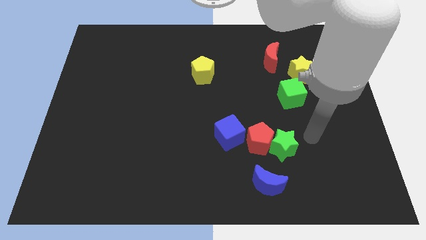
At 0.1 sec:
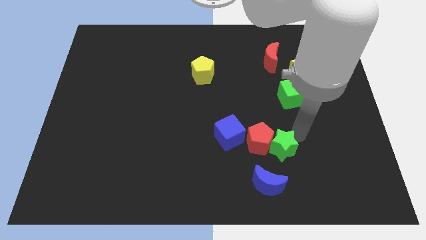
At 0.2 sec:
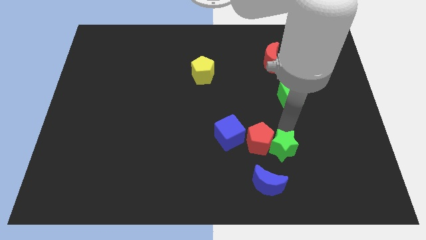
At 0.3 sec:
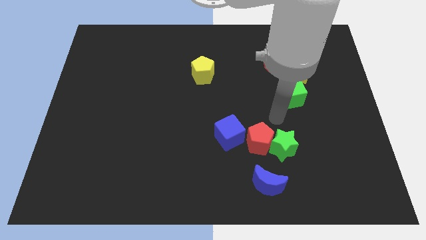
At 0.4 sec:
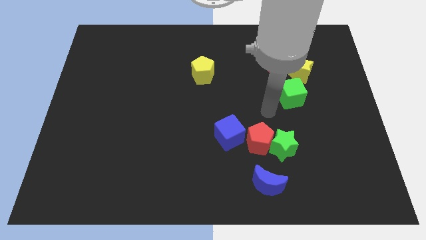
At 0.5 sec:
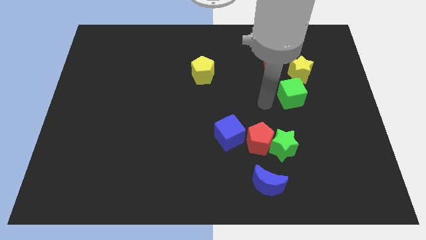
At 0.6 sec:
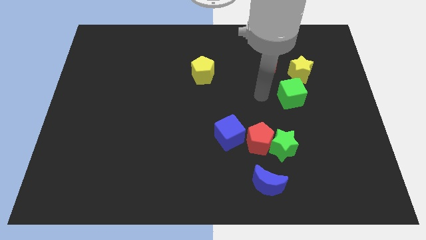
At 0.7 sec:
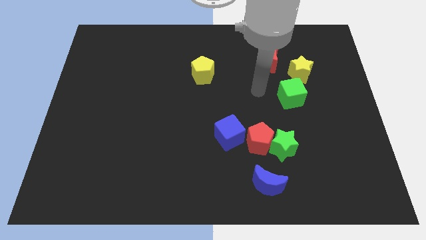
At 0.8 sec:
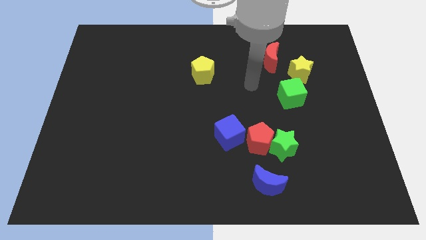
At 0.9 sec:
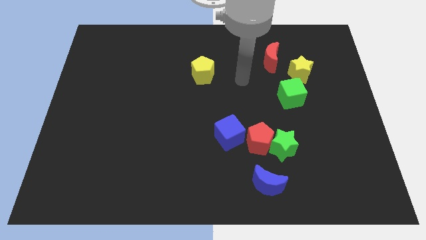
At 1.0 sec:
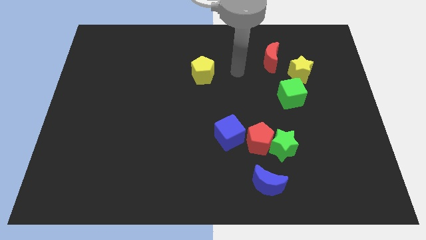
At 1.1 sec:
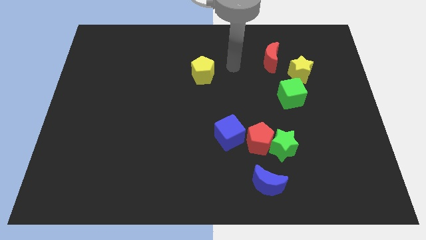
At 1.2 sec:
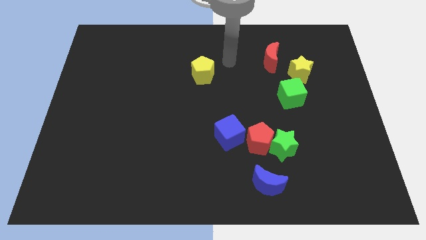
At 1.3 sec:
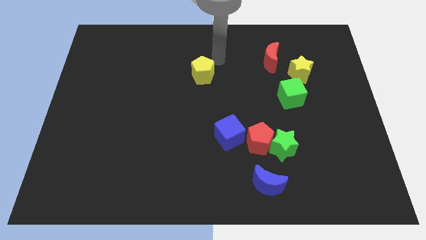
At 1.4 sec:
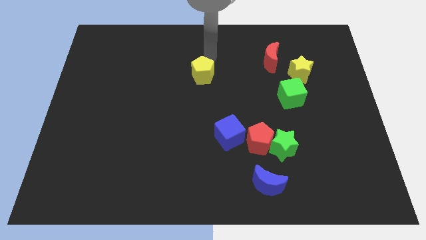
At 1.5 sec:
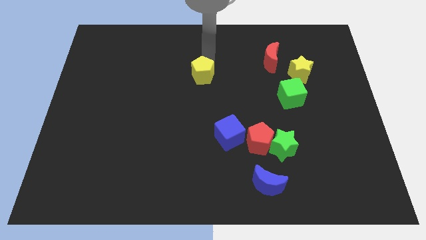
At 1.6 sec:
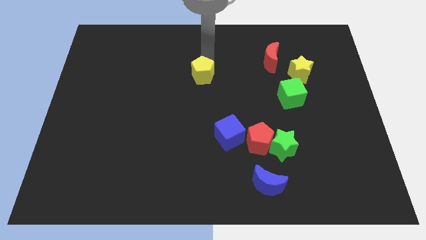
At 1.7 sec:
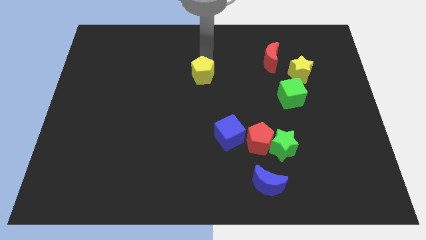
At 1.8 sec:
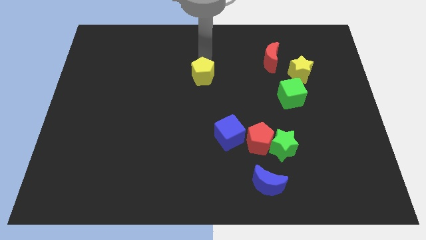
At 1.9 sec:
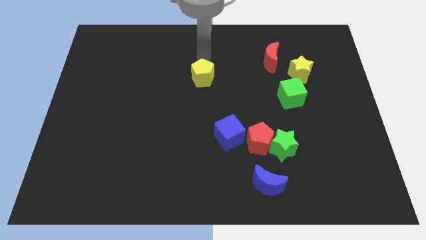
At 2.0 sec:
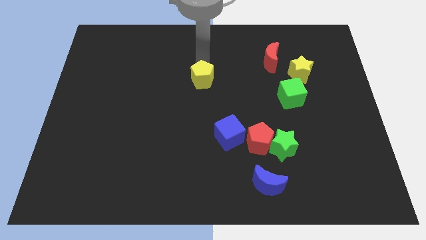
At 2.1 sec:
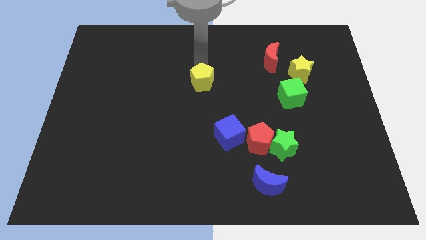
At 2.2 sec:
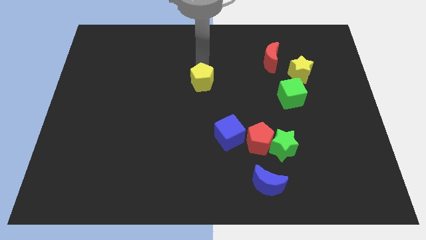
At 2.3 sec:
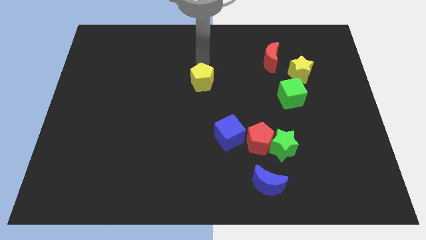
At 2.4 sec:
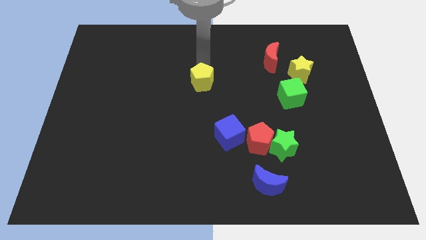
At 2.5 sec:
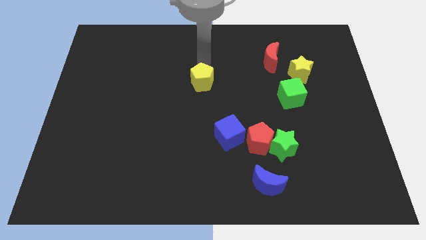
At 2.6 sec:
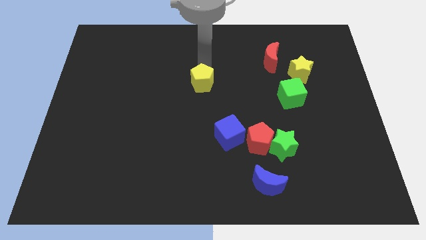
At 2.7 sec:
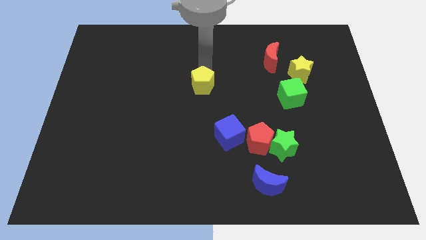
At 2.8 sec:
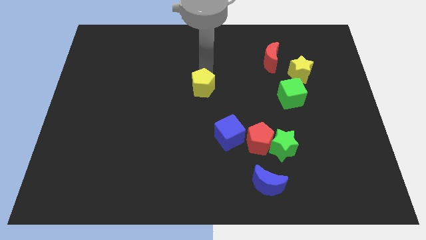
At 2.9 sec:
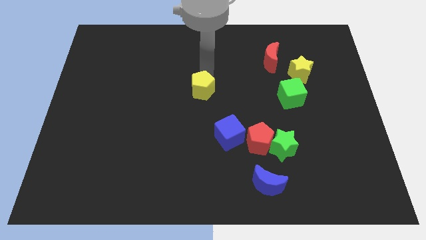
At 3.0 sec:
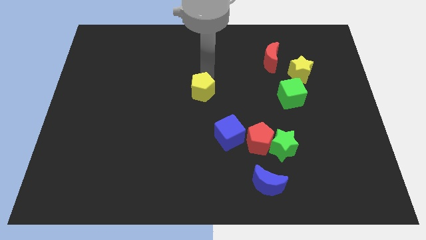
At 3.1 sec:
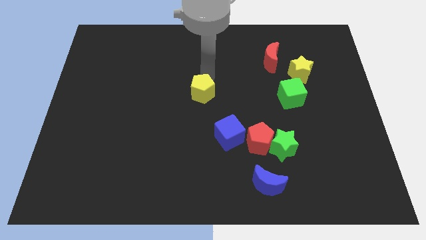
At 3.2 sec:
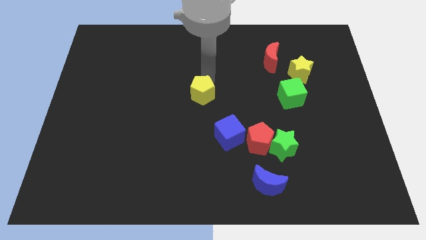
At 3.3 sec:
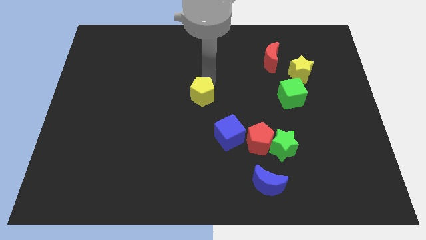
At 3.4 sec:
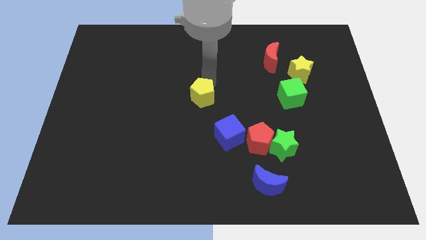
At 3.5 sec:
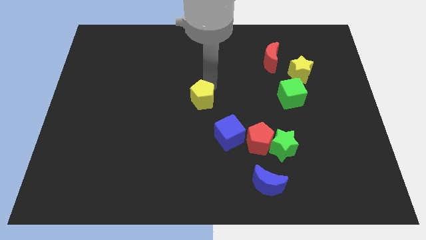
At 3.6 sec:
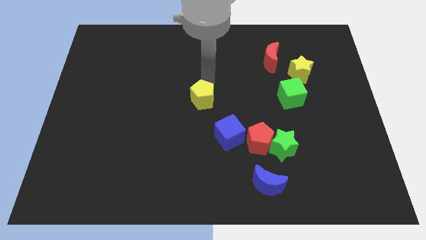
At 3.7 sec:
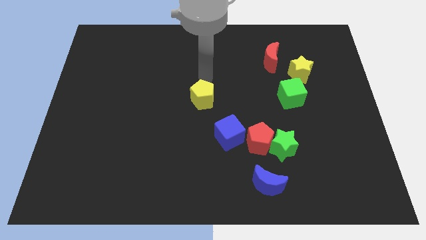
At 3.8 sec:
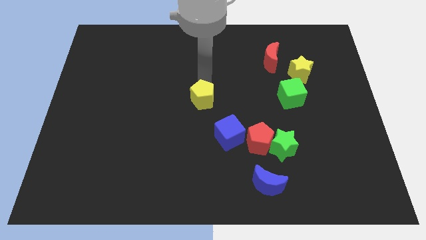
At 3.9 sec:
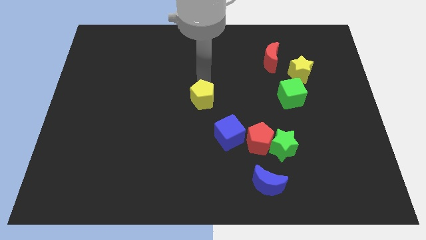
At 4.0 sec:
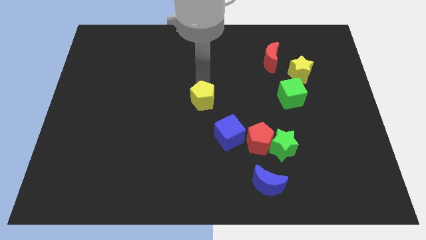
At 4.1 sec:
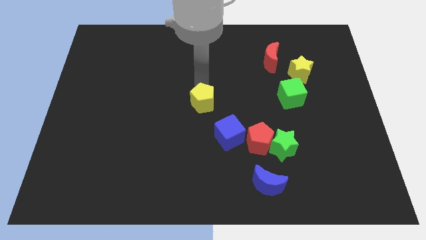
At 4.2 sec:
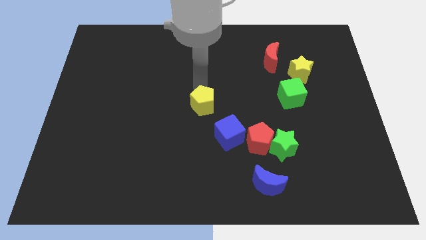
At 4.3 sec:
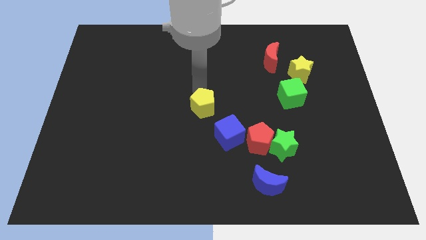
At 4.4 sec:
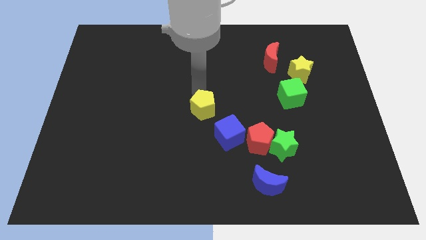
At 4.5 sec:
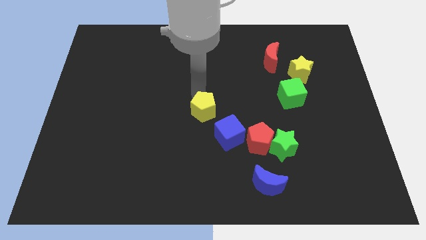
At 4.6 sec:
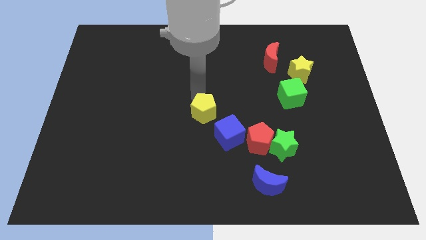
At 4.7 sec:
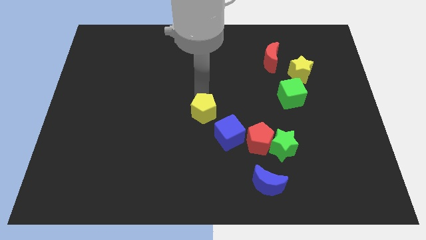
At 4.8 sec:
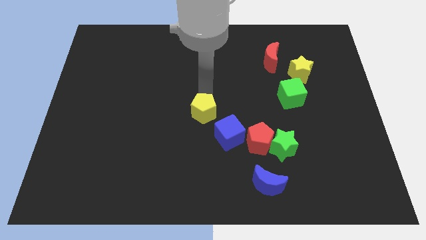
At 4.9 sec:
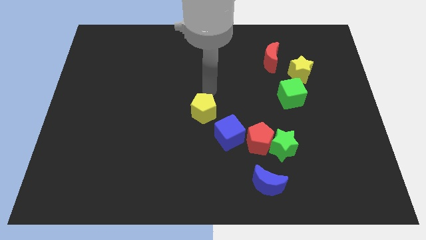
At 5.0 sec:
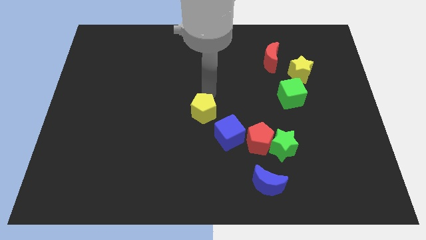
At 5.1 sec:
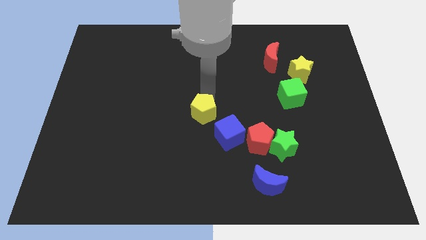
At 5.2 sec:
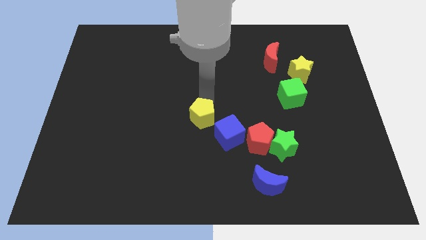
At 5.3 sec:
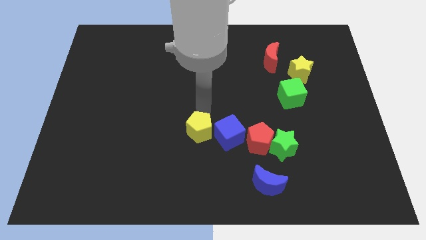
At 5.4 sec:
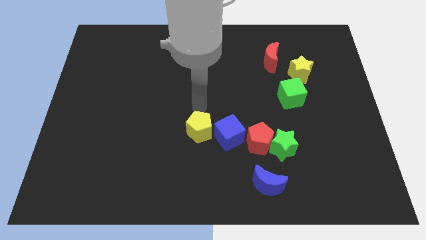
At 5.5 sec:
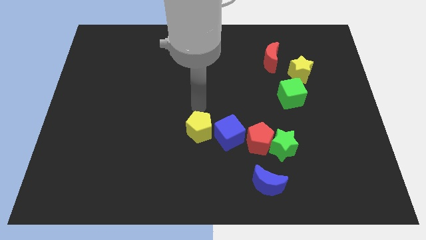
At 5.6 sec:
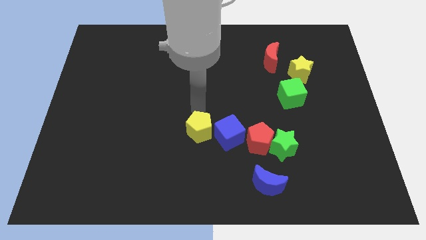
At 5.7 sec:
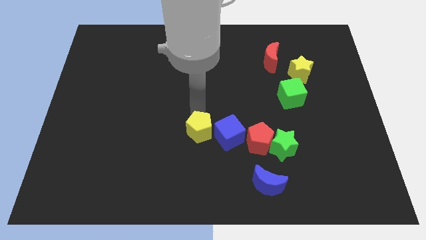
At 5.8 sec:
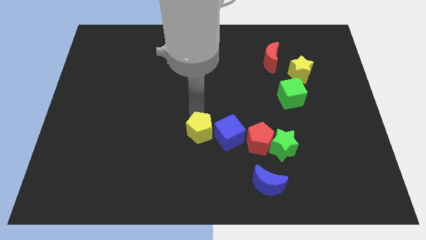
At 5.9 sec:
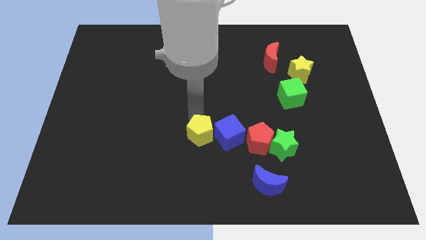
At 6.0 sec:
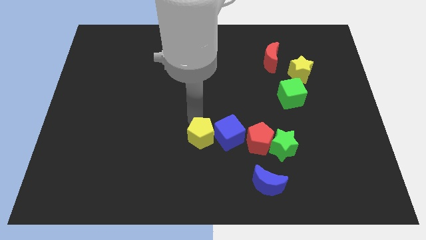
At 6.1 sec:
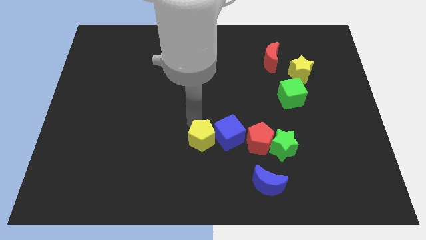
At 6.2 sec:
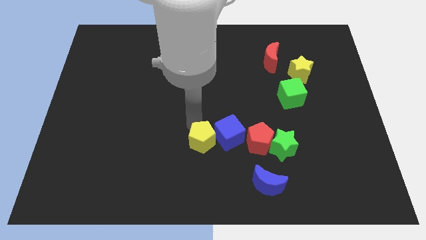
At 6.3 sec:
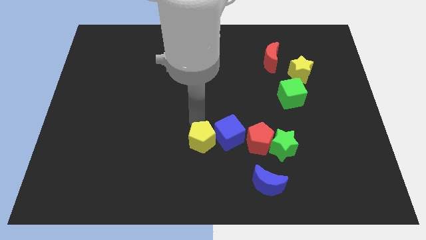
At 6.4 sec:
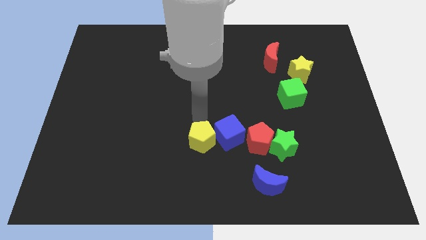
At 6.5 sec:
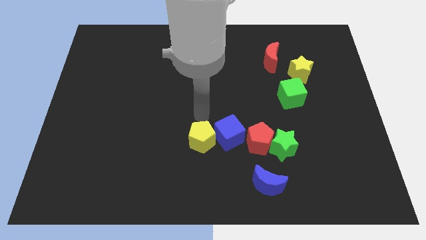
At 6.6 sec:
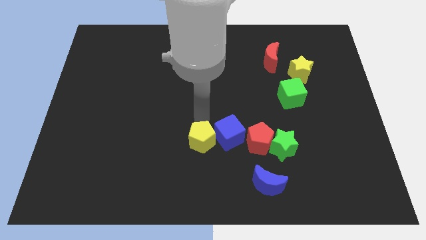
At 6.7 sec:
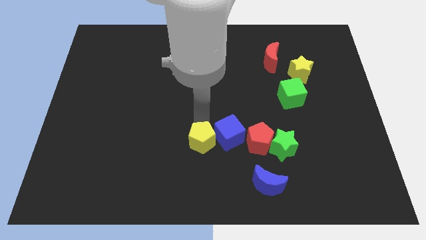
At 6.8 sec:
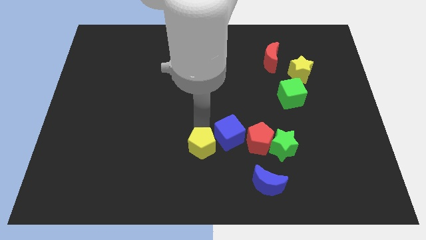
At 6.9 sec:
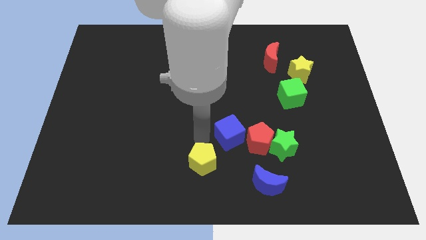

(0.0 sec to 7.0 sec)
slide the yellow pentagon to the bottom side
